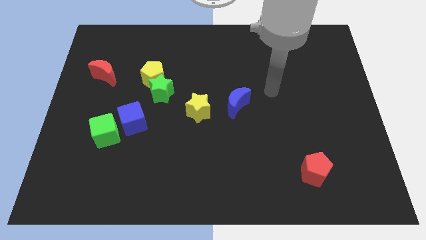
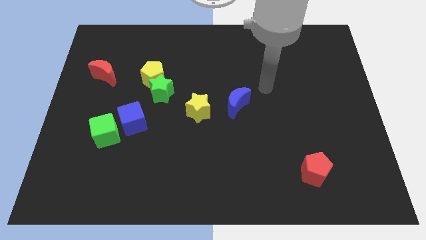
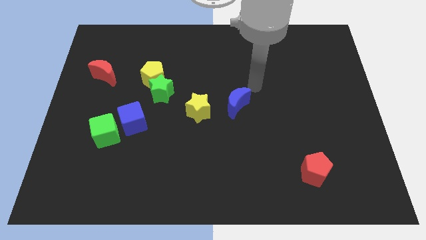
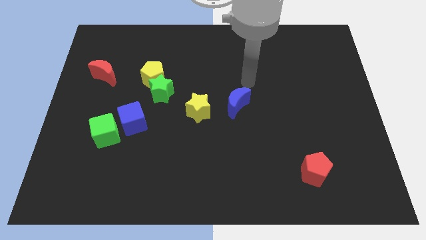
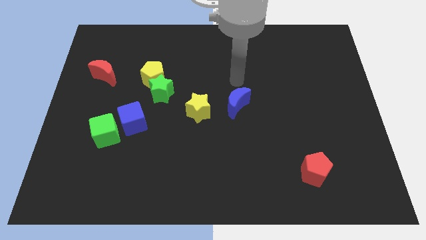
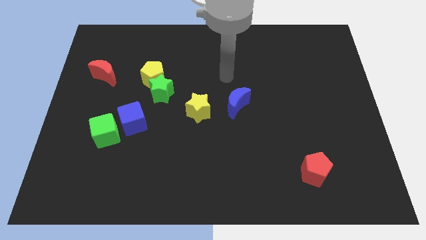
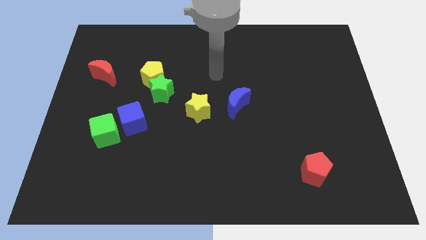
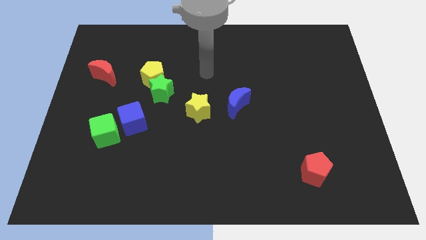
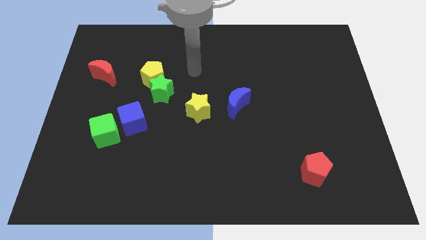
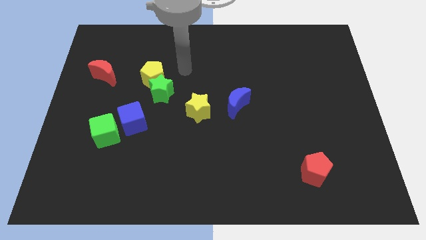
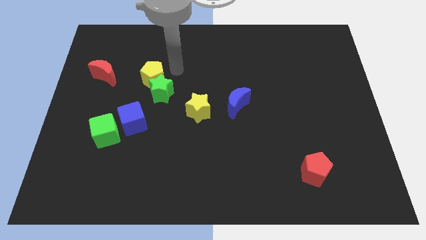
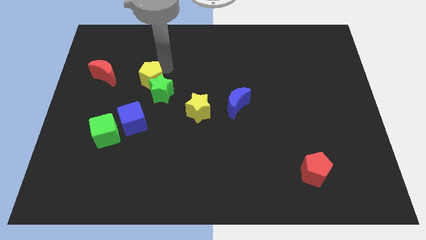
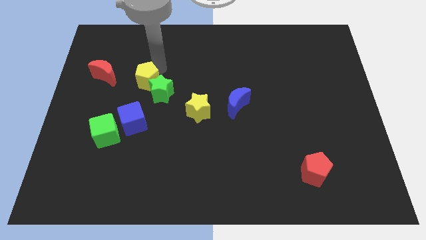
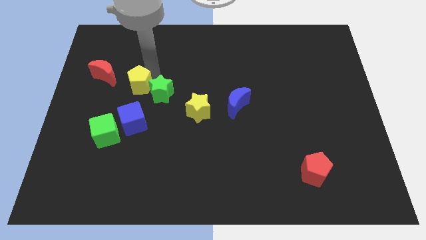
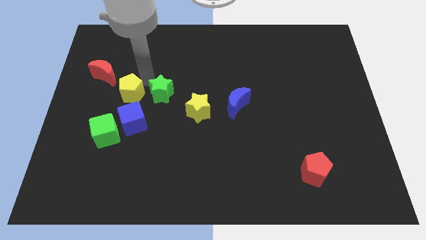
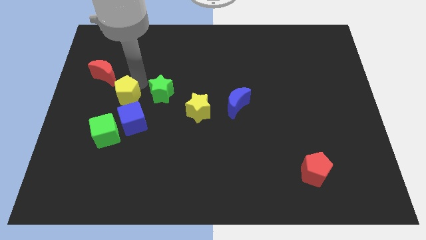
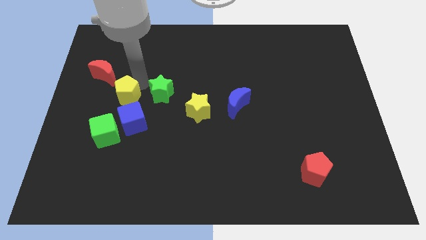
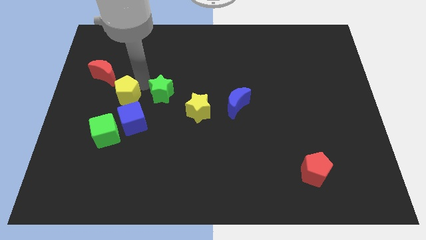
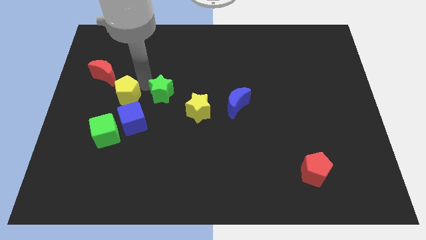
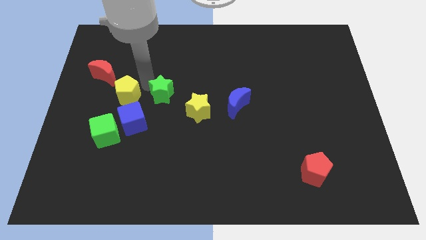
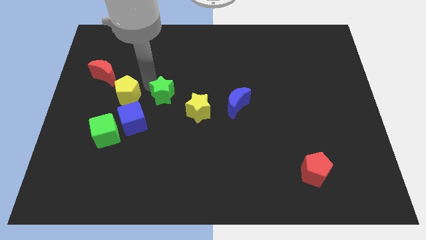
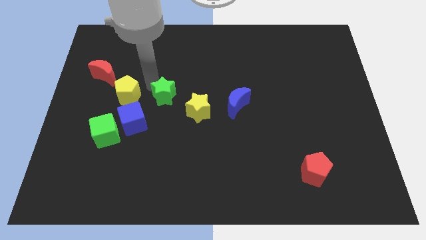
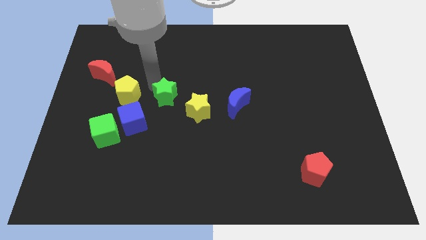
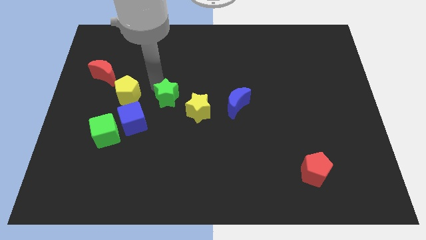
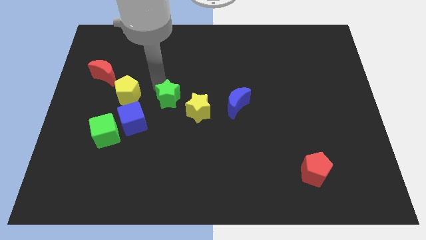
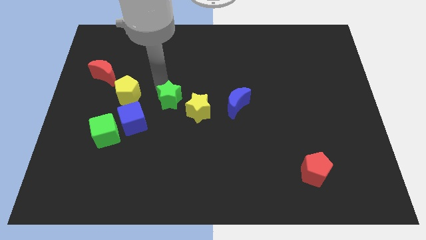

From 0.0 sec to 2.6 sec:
move the green star away from the yellow pentagon

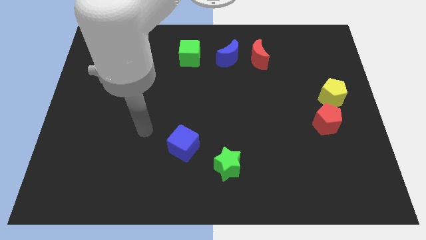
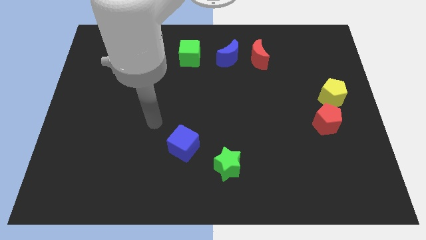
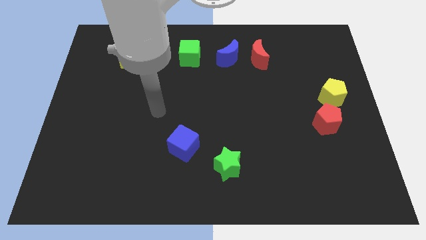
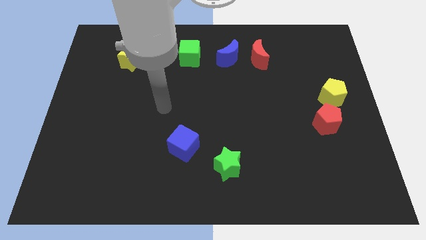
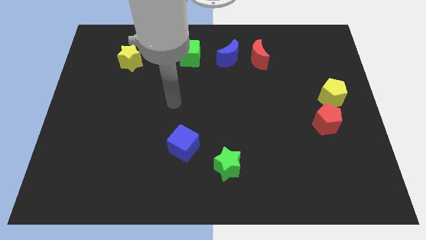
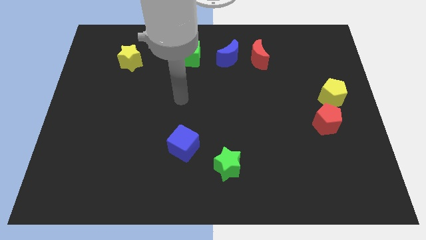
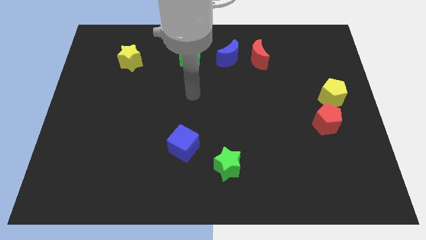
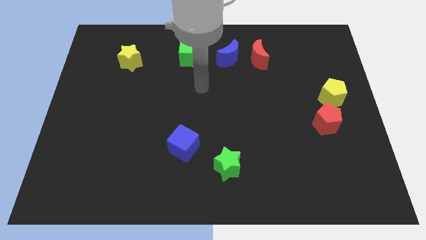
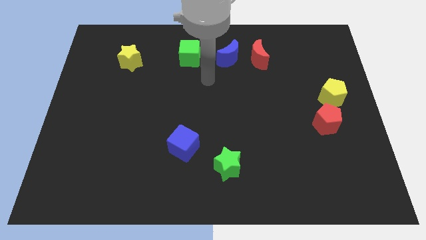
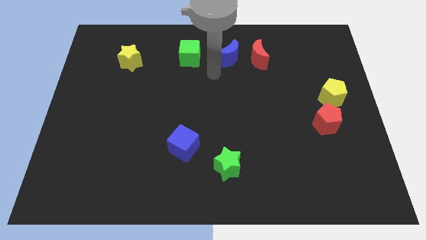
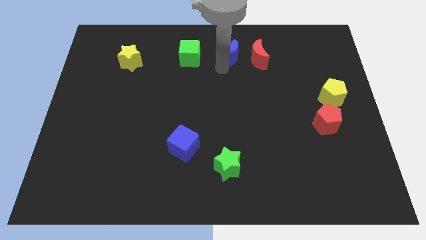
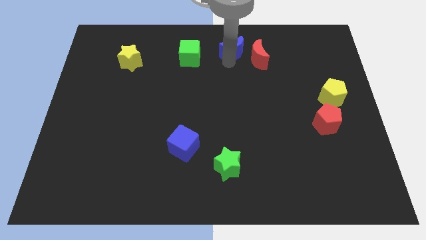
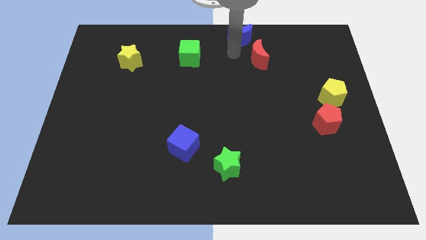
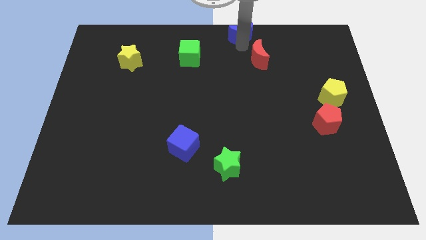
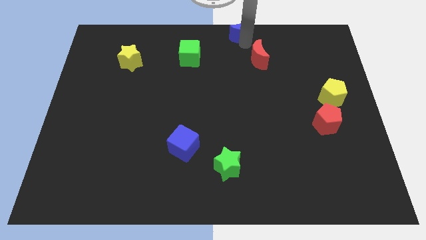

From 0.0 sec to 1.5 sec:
pull the red moon apart from the blue moon

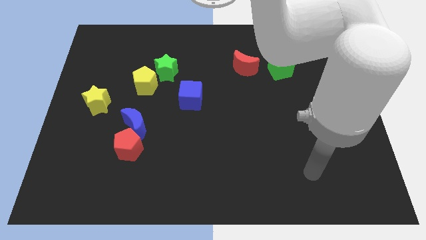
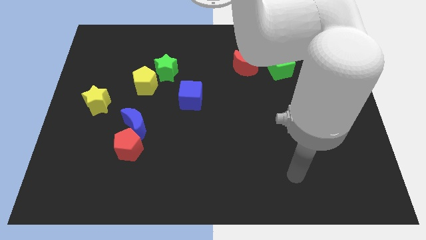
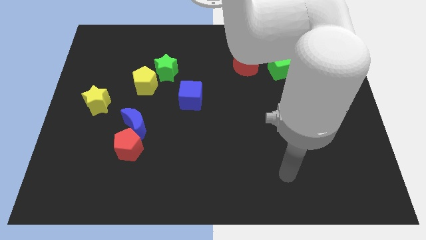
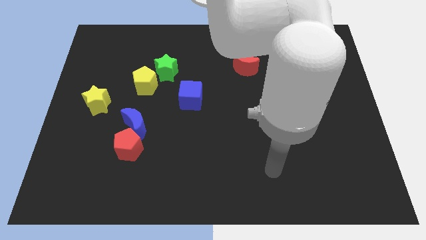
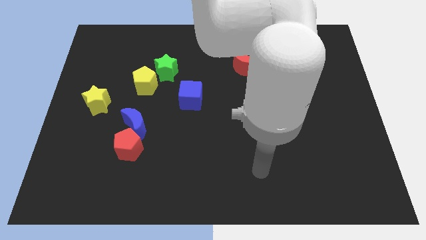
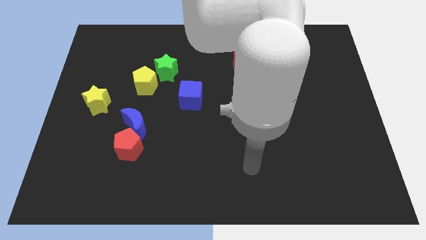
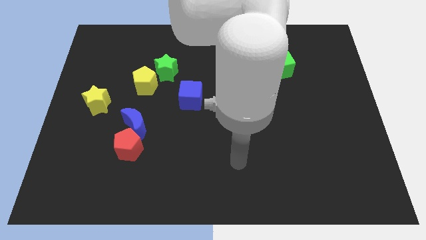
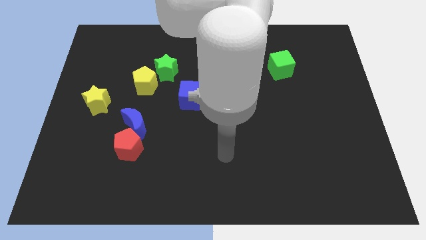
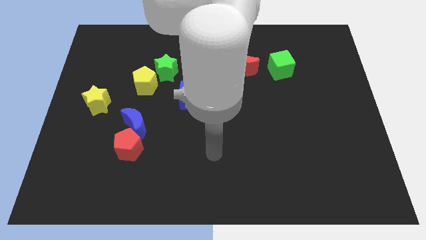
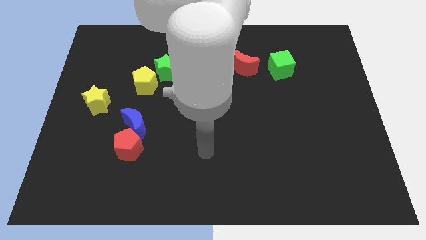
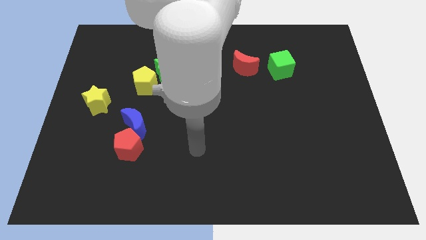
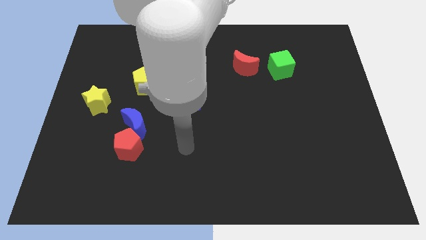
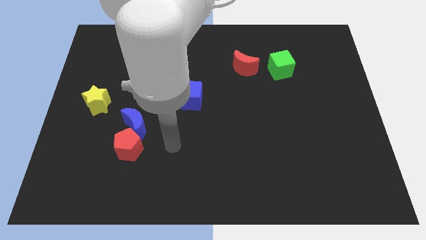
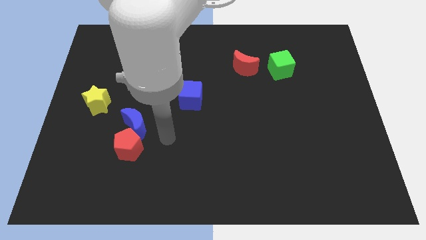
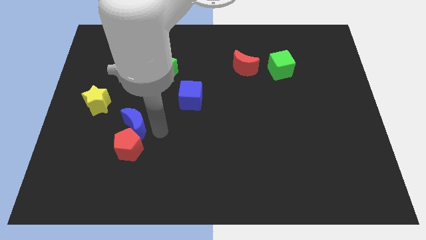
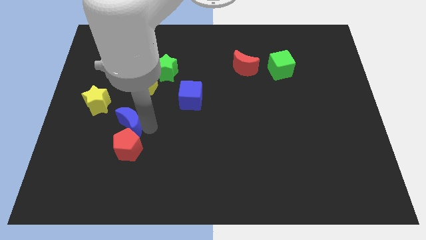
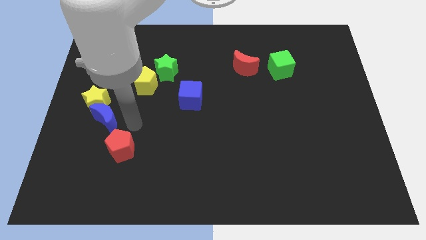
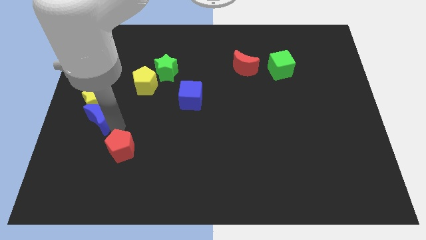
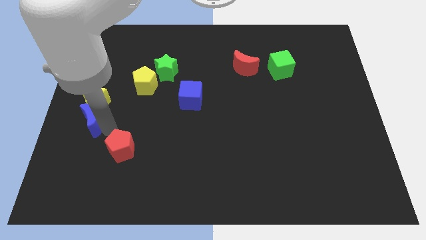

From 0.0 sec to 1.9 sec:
pull the red pentagon apart from the blue moon

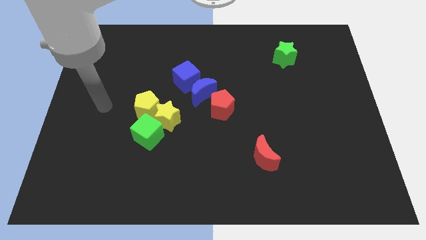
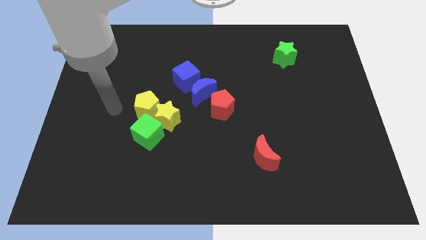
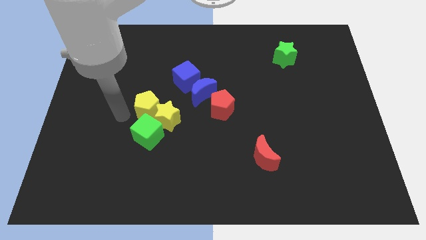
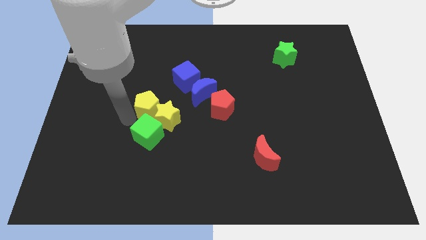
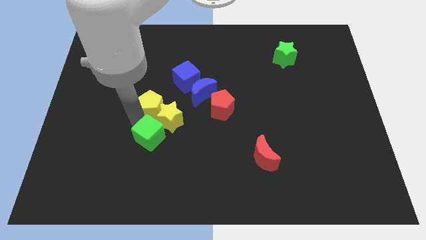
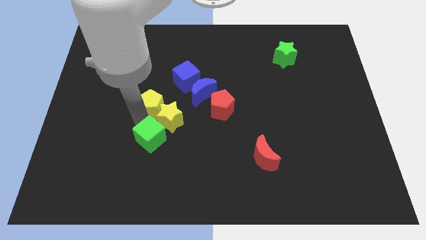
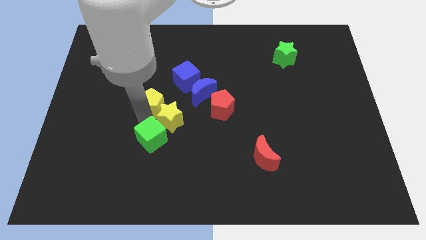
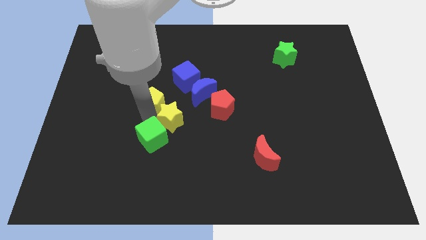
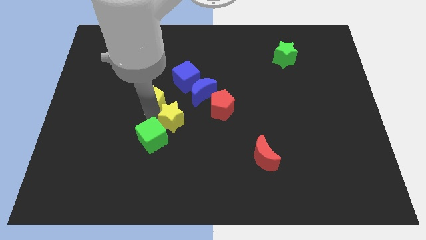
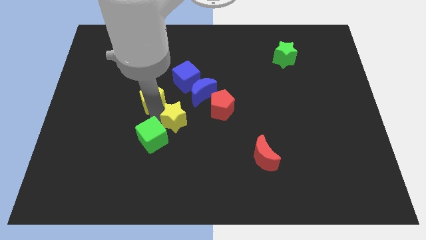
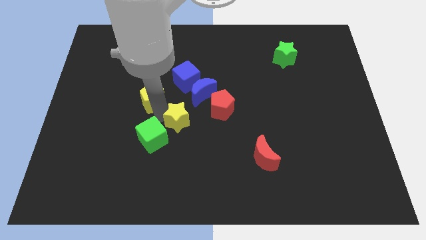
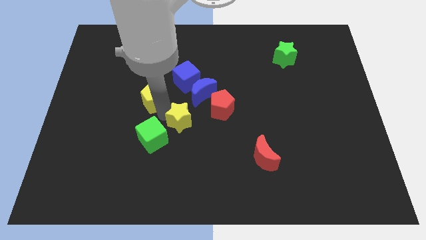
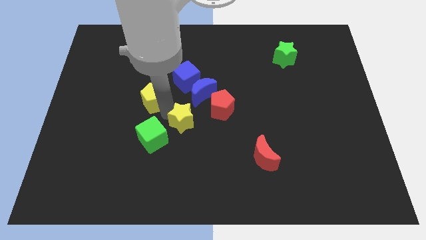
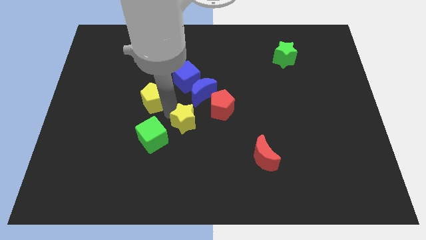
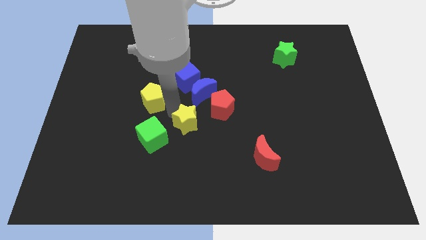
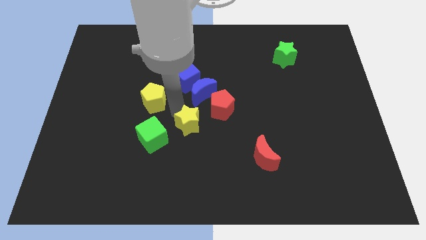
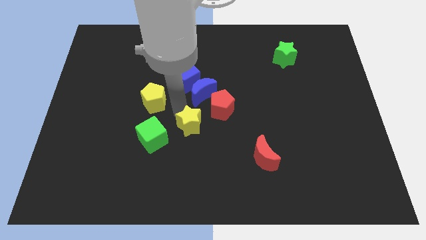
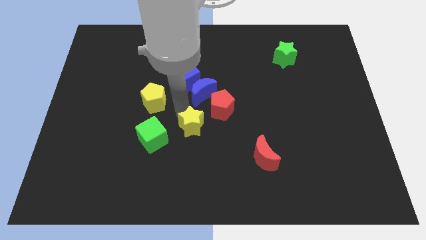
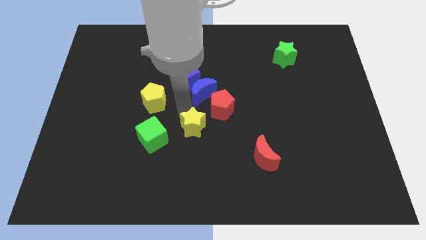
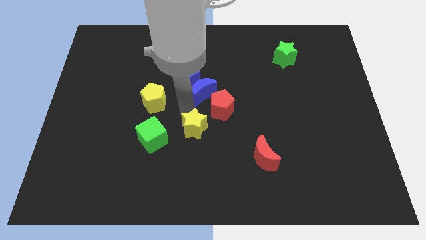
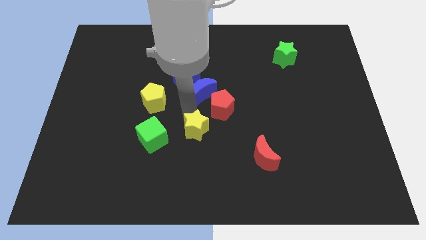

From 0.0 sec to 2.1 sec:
move the yellow star away from the yellow pentagon and green cube

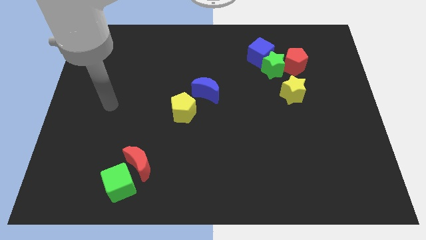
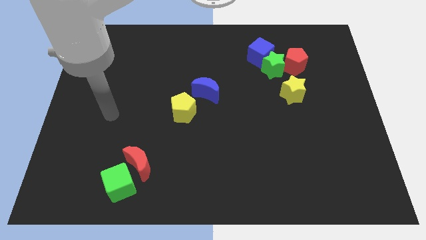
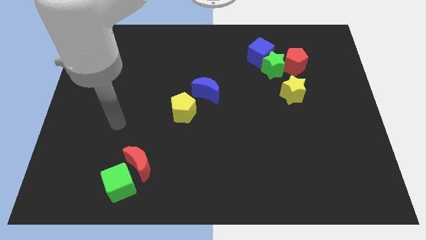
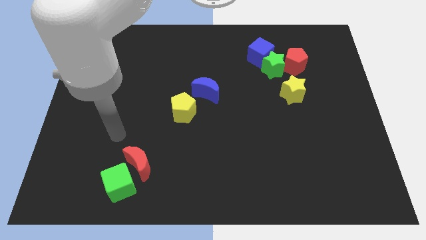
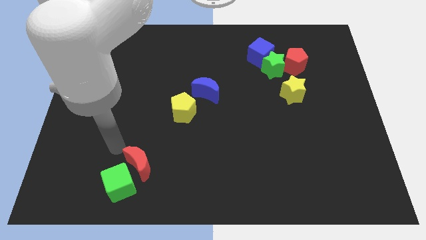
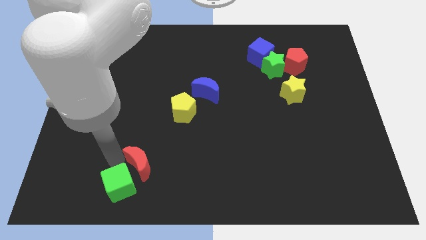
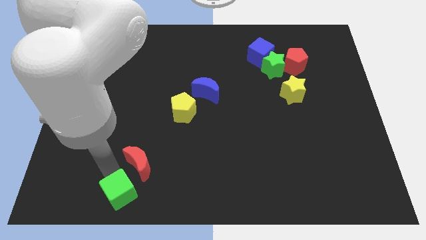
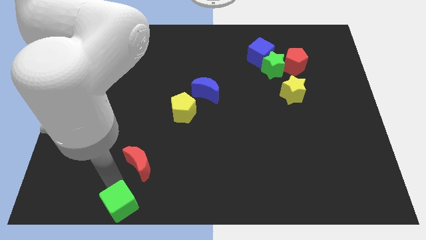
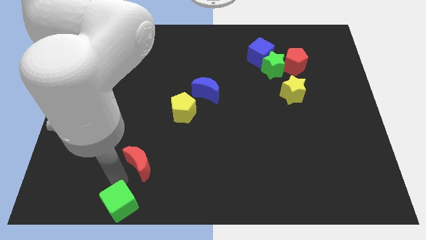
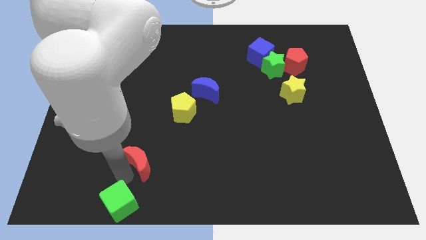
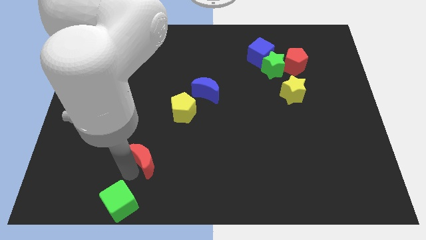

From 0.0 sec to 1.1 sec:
separate the red moon from the green cube
